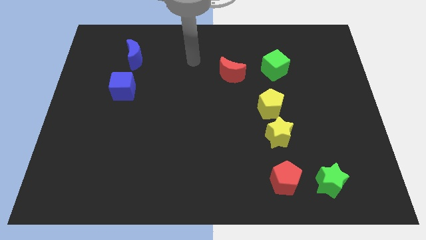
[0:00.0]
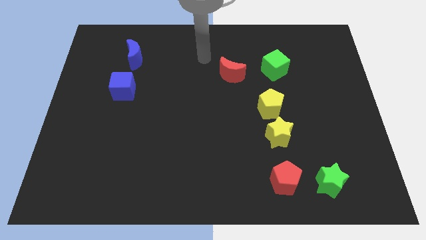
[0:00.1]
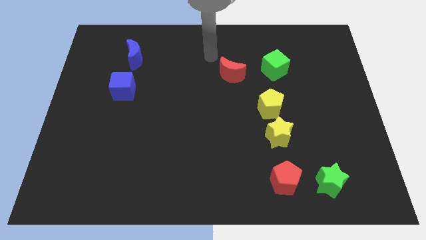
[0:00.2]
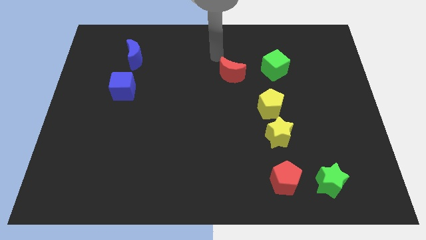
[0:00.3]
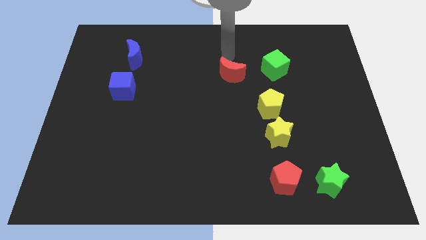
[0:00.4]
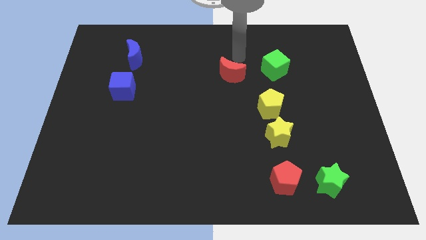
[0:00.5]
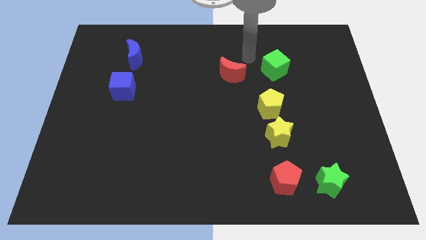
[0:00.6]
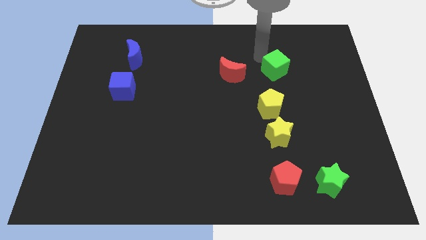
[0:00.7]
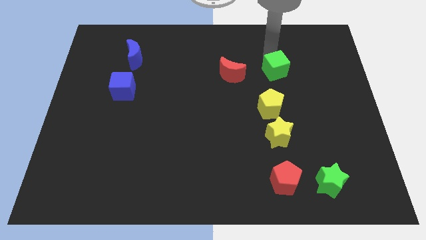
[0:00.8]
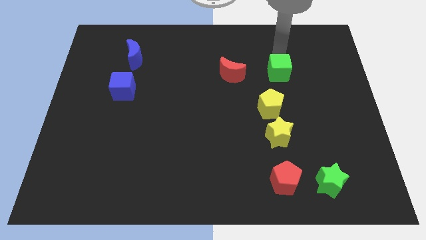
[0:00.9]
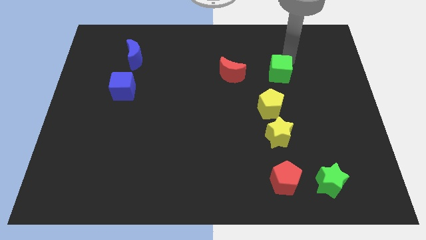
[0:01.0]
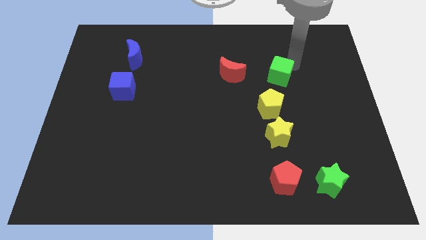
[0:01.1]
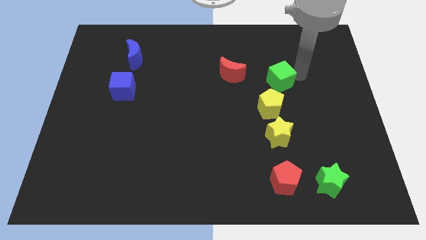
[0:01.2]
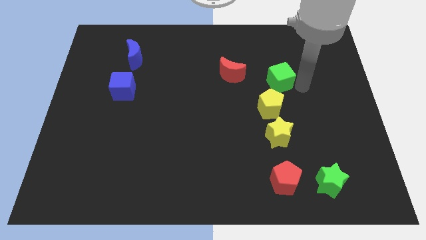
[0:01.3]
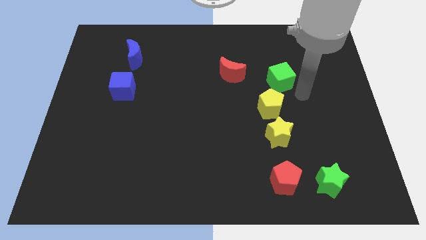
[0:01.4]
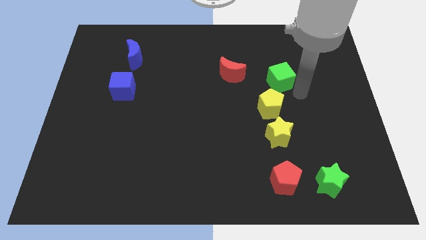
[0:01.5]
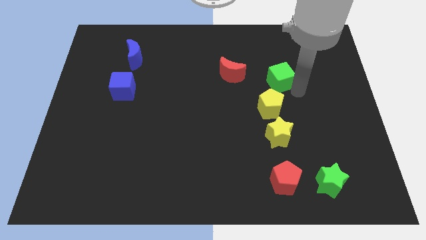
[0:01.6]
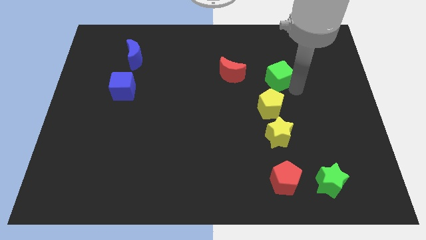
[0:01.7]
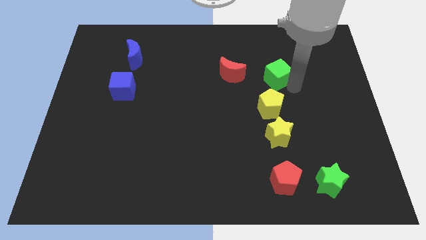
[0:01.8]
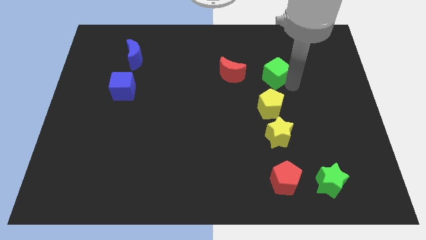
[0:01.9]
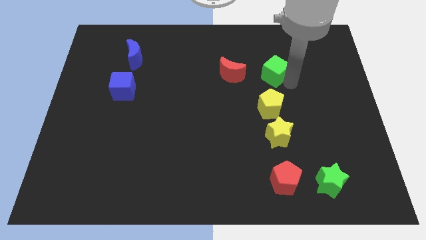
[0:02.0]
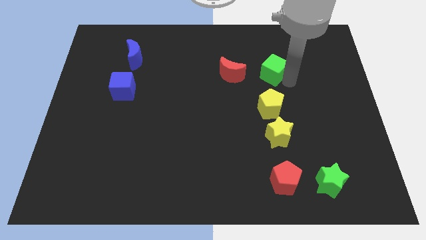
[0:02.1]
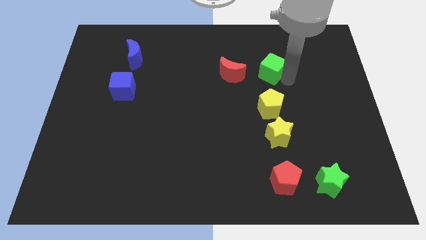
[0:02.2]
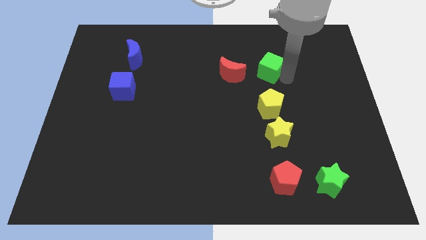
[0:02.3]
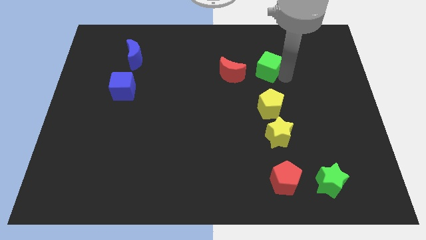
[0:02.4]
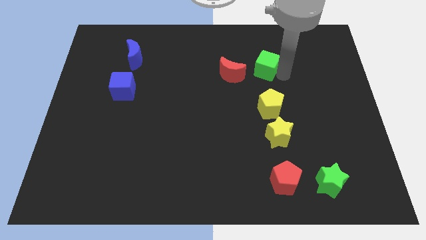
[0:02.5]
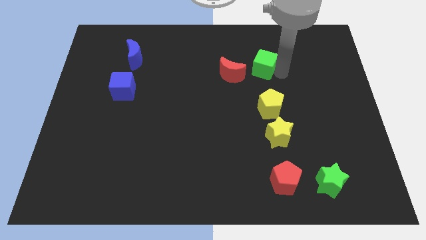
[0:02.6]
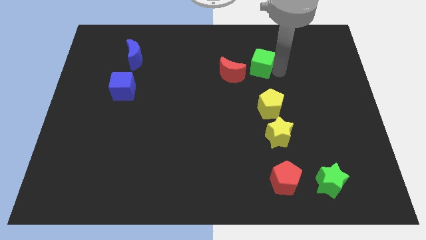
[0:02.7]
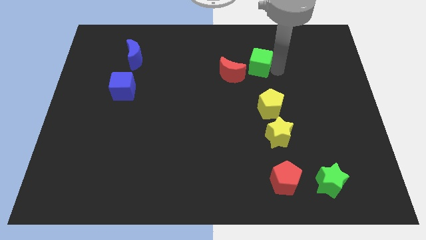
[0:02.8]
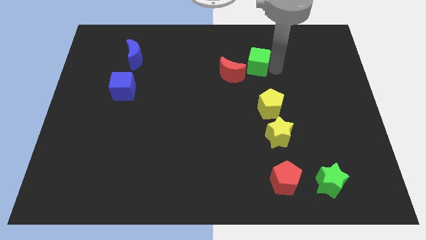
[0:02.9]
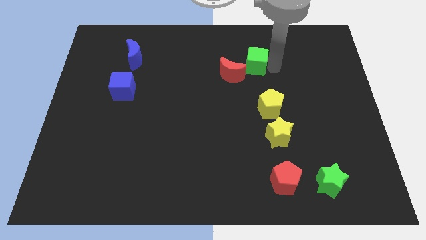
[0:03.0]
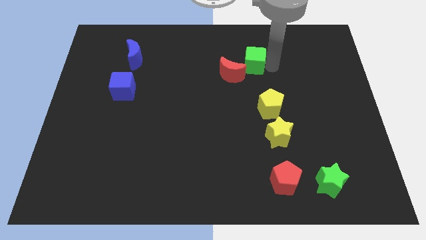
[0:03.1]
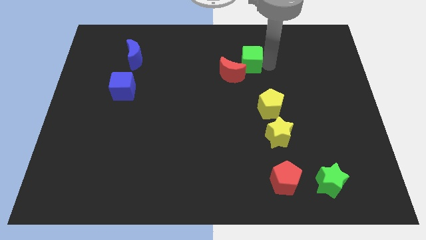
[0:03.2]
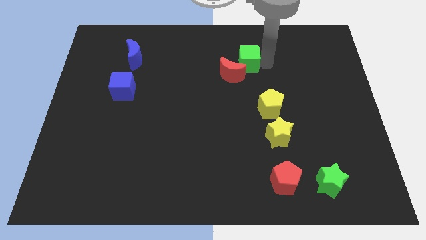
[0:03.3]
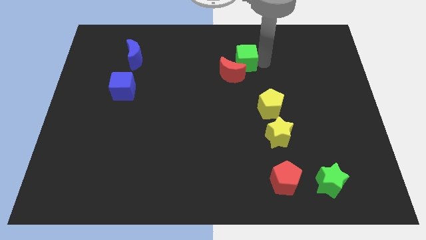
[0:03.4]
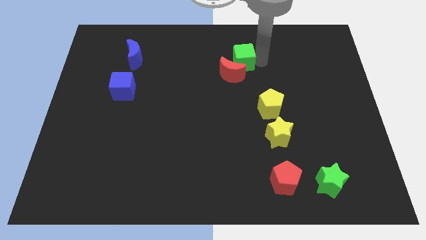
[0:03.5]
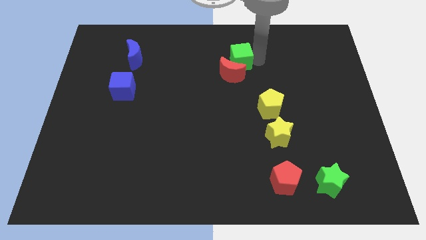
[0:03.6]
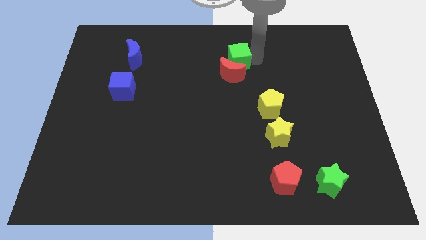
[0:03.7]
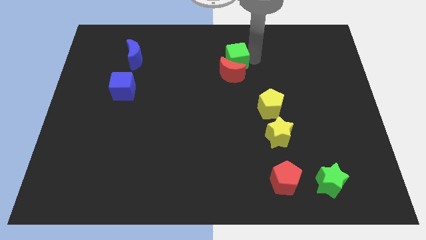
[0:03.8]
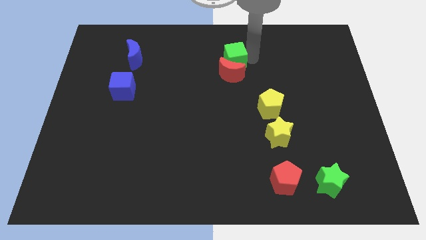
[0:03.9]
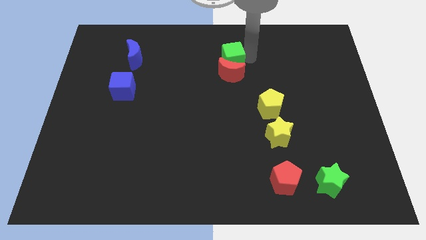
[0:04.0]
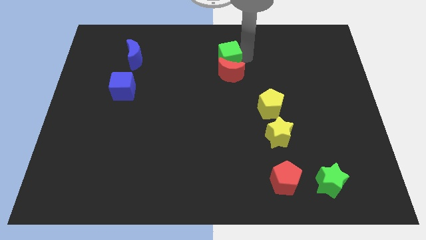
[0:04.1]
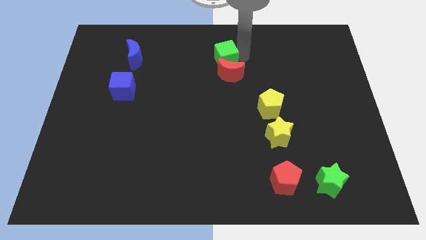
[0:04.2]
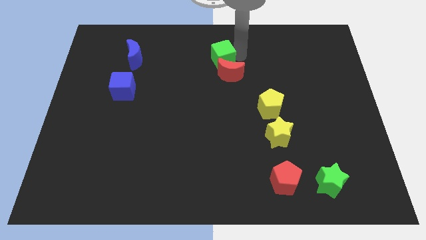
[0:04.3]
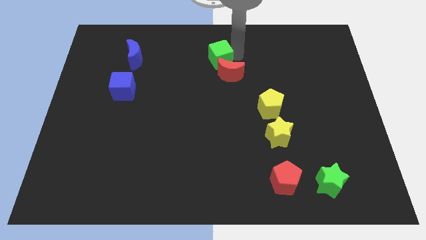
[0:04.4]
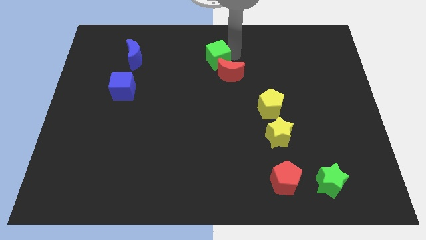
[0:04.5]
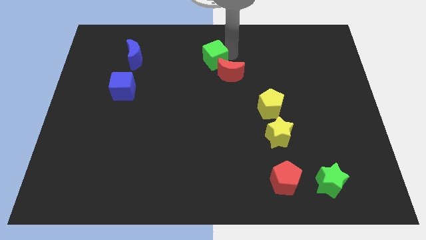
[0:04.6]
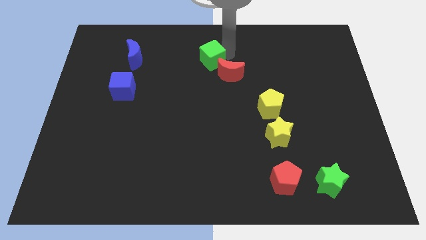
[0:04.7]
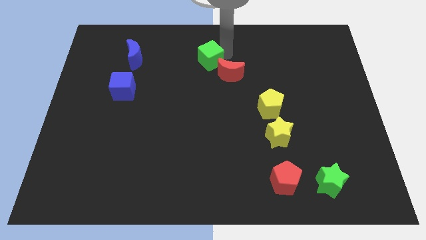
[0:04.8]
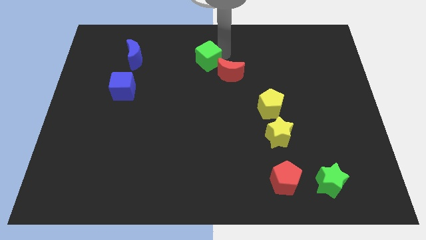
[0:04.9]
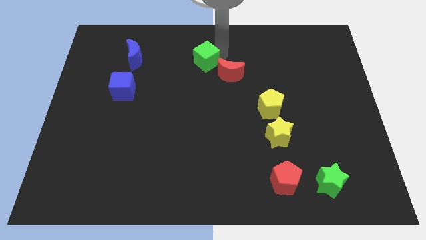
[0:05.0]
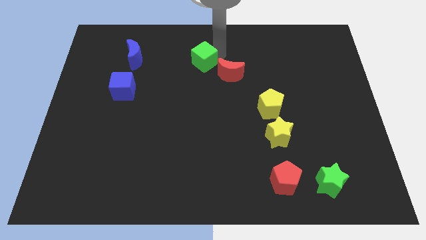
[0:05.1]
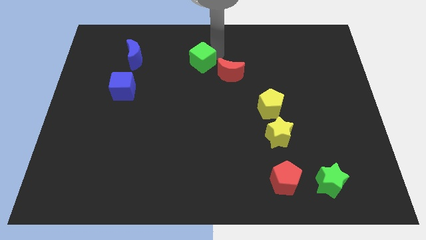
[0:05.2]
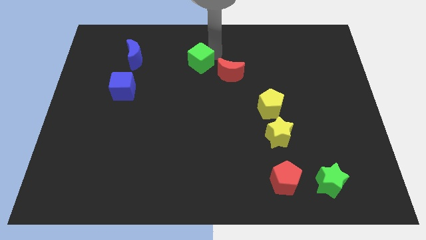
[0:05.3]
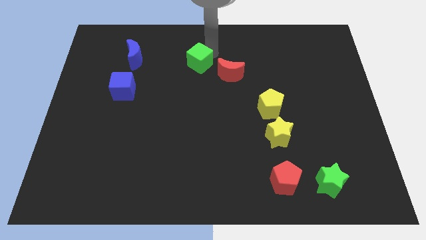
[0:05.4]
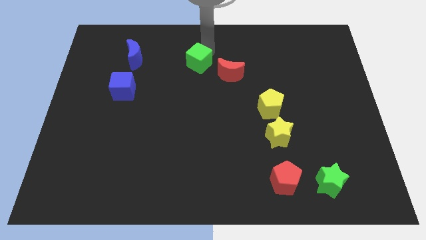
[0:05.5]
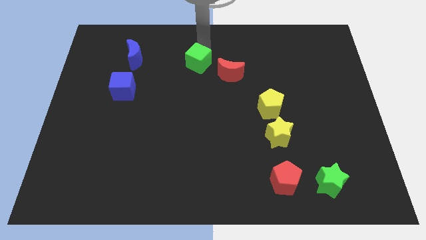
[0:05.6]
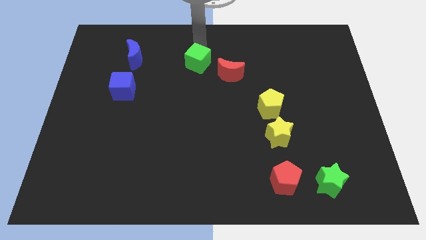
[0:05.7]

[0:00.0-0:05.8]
push the green cube left

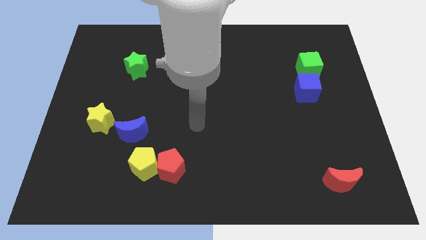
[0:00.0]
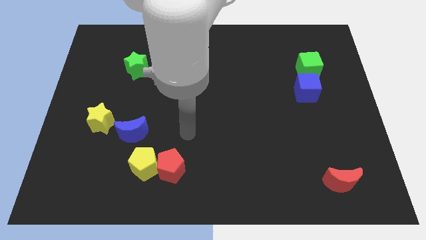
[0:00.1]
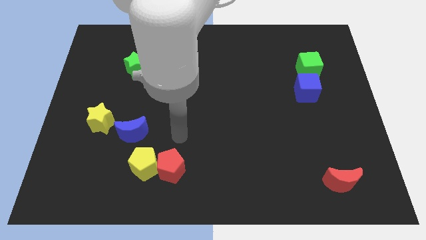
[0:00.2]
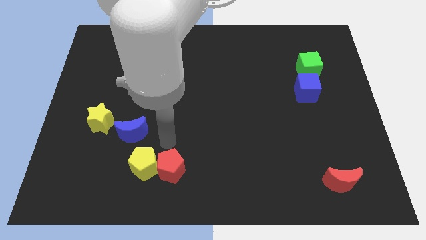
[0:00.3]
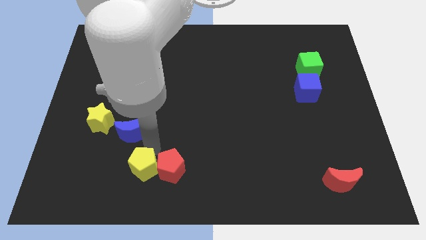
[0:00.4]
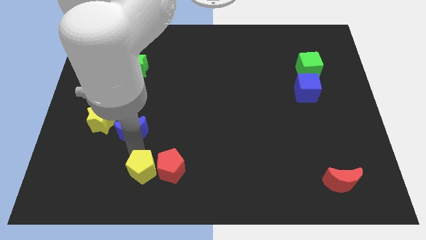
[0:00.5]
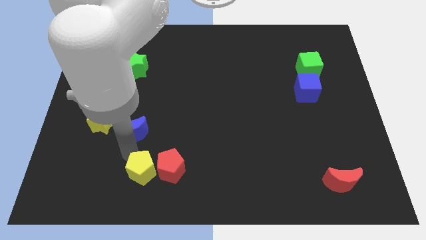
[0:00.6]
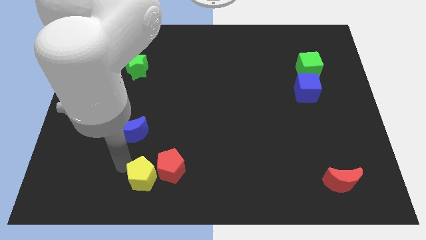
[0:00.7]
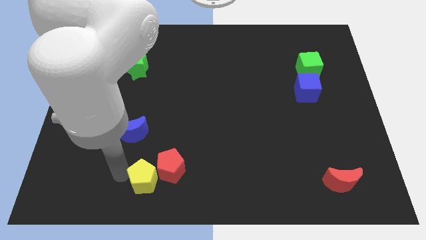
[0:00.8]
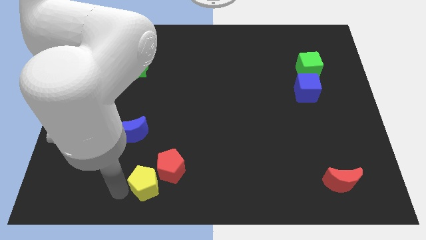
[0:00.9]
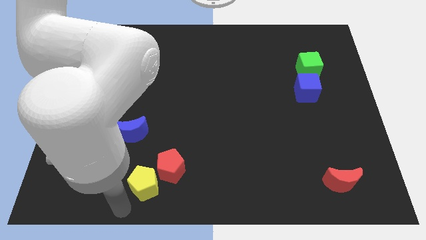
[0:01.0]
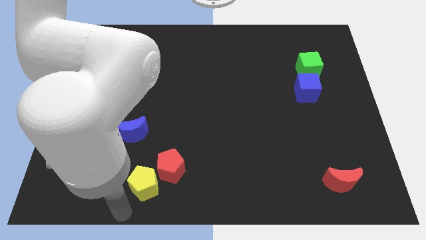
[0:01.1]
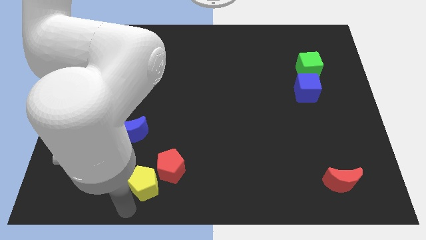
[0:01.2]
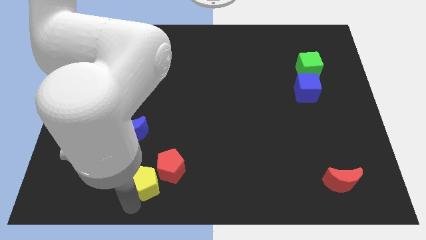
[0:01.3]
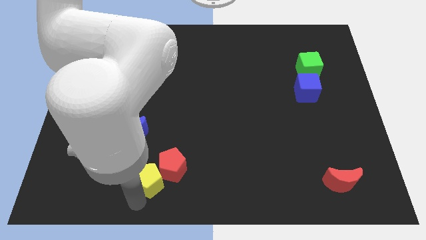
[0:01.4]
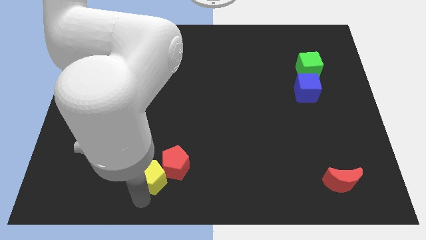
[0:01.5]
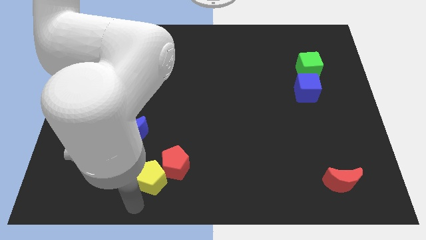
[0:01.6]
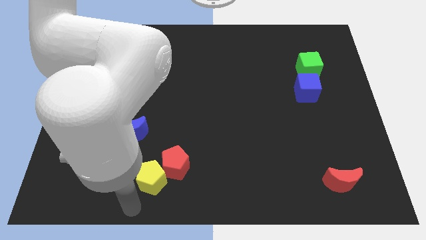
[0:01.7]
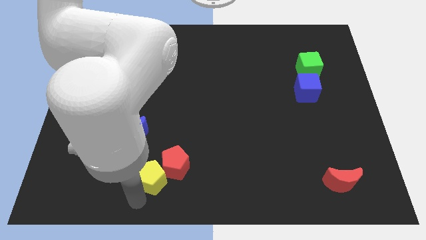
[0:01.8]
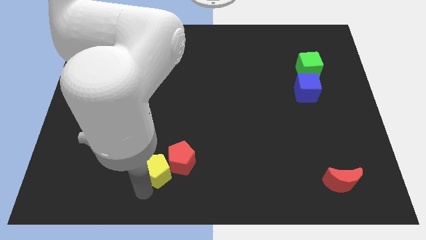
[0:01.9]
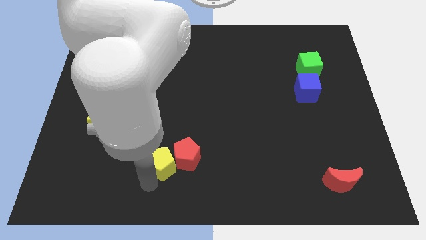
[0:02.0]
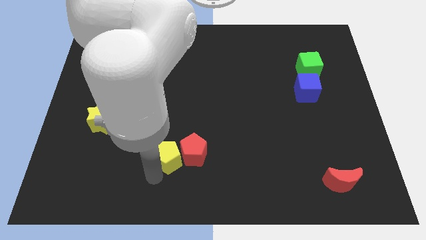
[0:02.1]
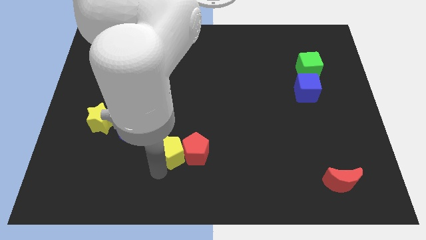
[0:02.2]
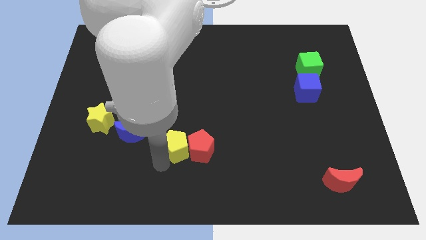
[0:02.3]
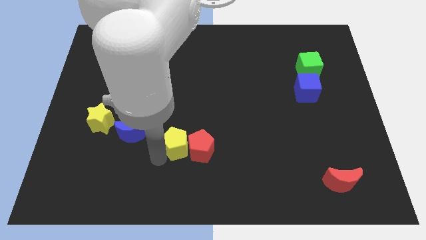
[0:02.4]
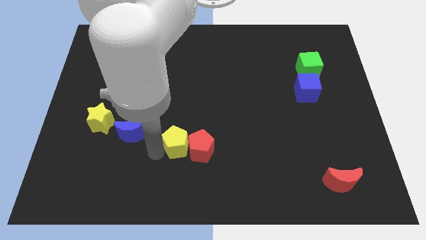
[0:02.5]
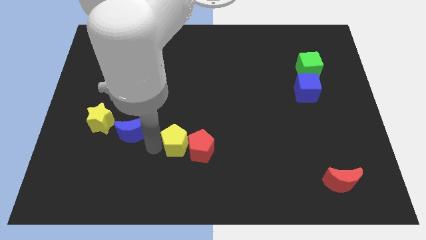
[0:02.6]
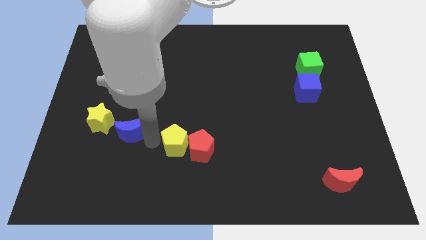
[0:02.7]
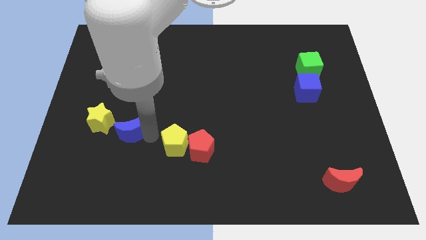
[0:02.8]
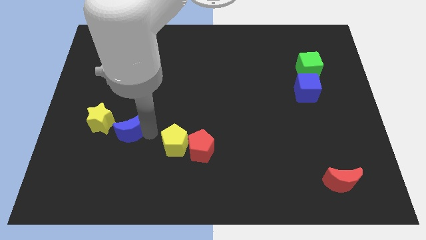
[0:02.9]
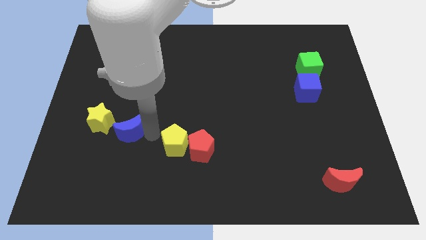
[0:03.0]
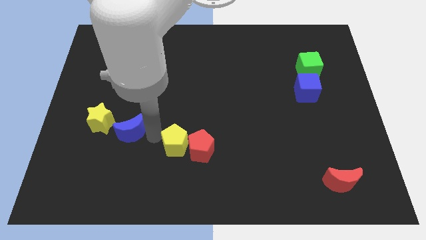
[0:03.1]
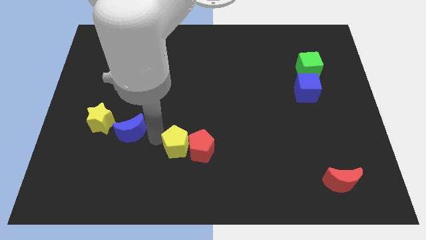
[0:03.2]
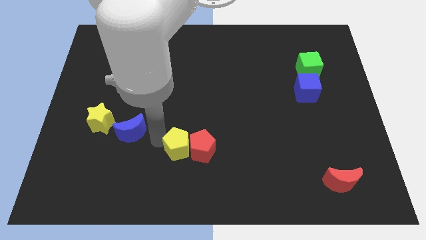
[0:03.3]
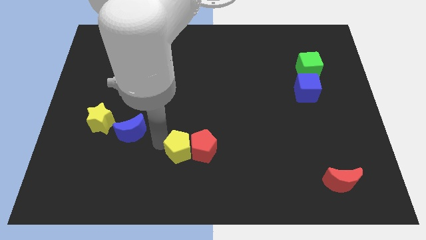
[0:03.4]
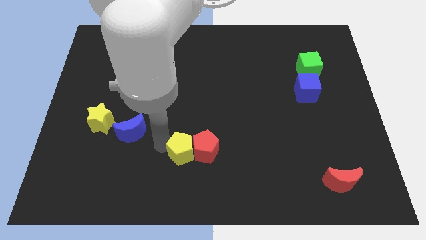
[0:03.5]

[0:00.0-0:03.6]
move the yellow pentagon right a bit
